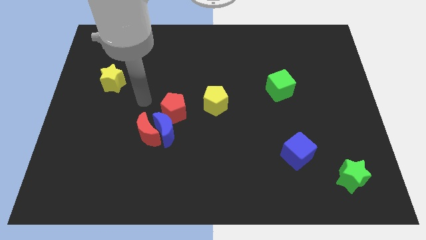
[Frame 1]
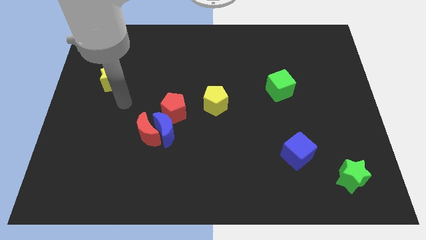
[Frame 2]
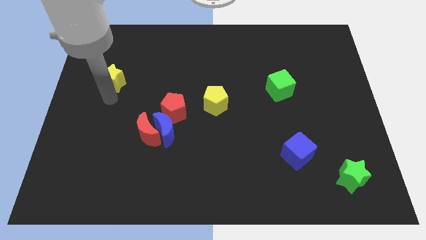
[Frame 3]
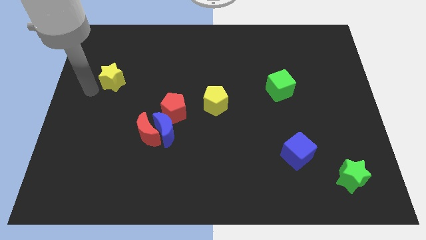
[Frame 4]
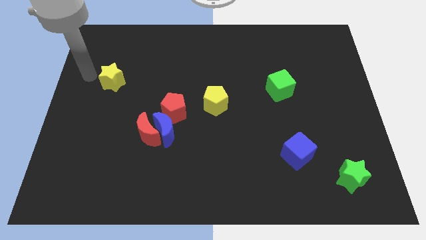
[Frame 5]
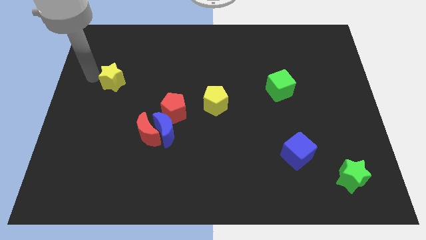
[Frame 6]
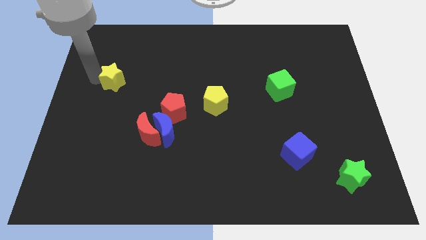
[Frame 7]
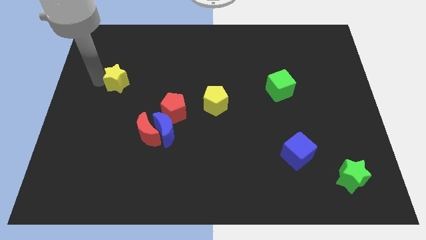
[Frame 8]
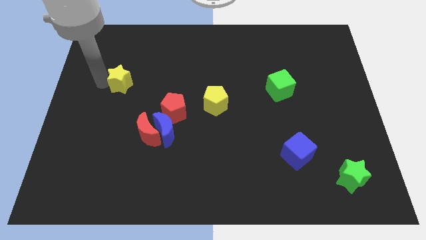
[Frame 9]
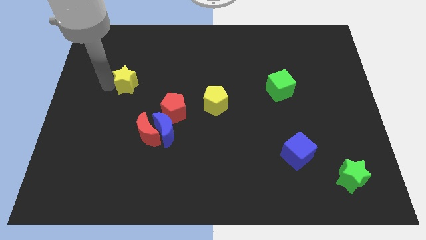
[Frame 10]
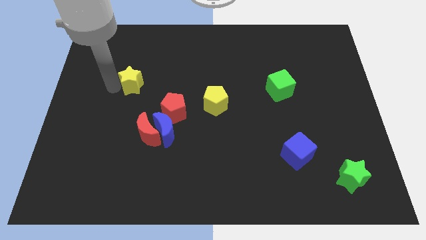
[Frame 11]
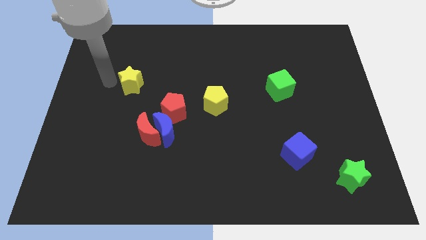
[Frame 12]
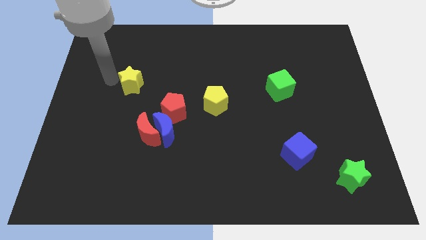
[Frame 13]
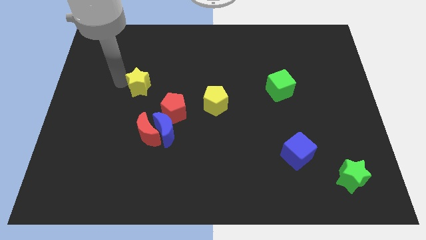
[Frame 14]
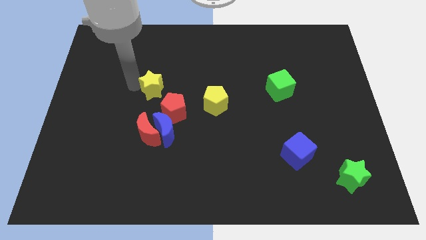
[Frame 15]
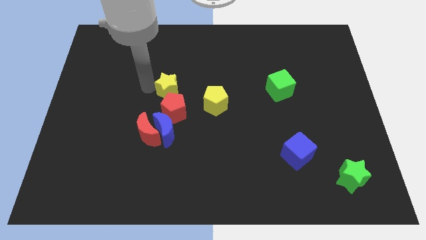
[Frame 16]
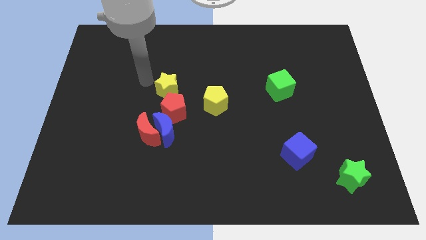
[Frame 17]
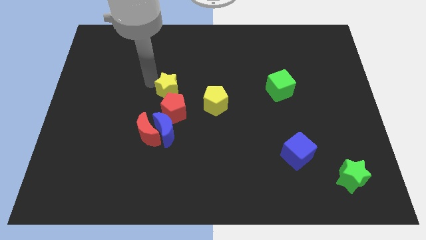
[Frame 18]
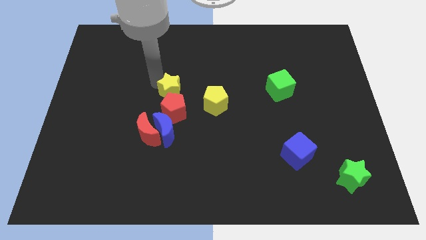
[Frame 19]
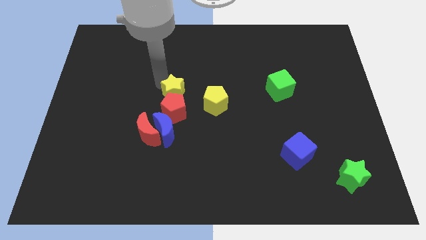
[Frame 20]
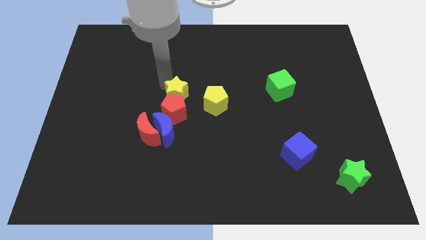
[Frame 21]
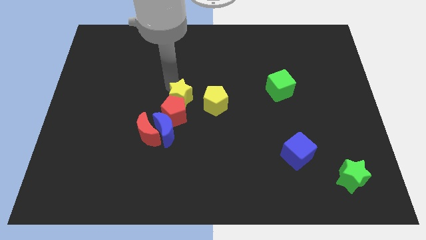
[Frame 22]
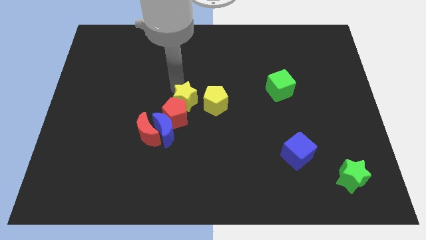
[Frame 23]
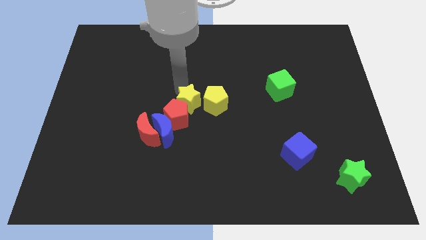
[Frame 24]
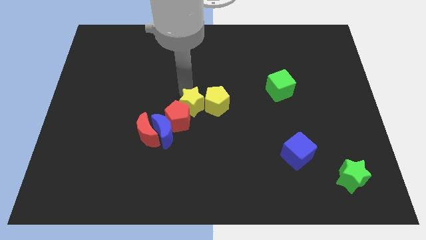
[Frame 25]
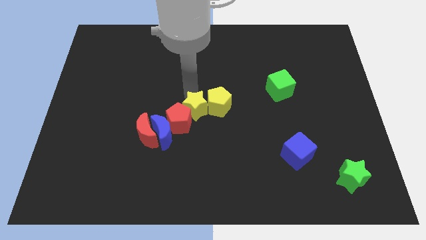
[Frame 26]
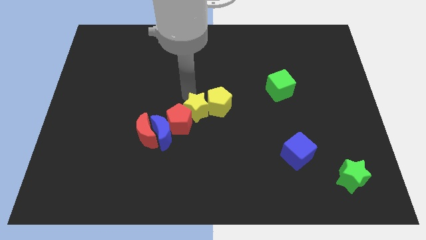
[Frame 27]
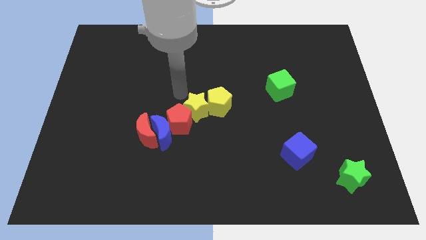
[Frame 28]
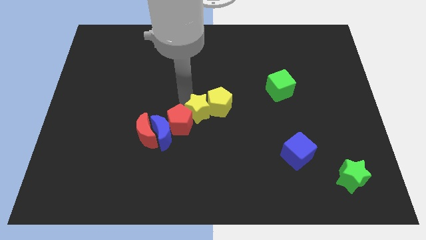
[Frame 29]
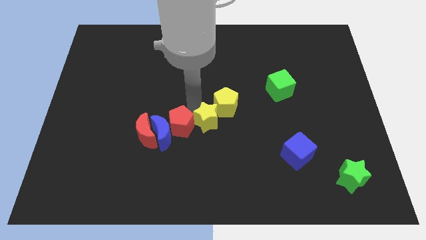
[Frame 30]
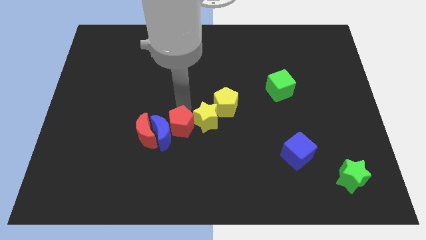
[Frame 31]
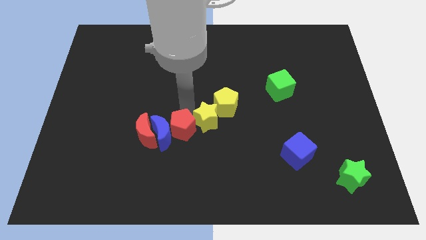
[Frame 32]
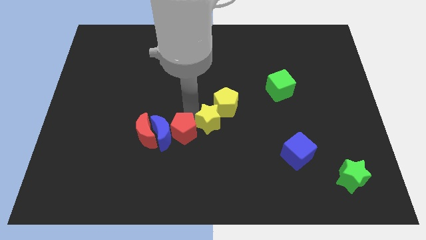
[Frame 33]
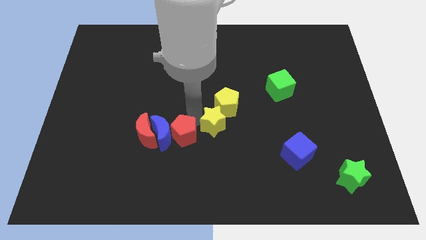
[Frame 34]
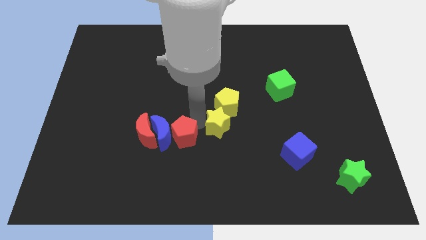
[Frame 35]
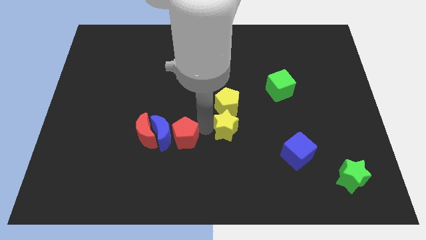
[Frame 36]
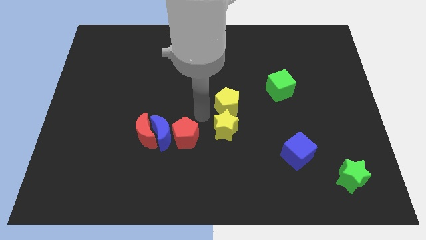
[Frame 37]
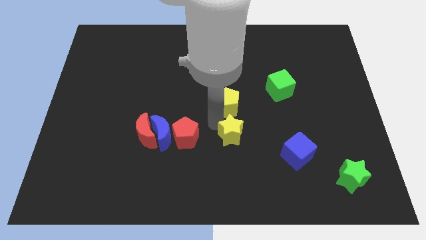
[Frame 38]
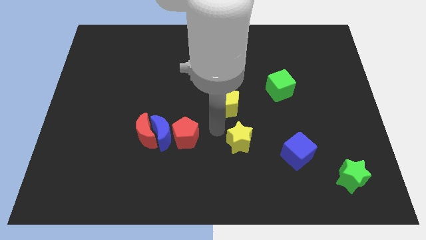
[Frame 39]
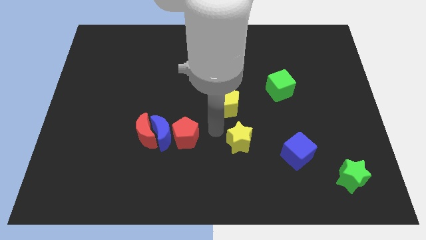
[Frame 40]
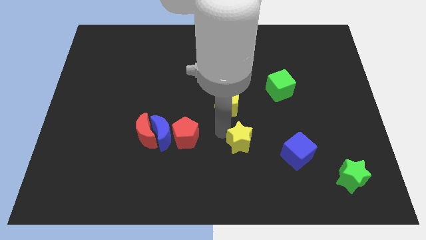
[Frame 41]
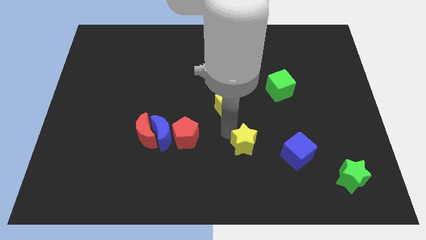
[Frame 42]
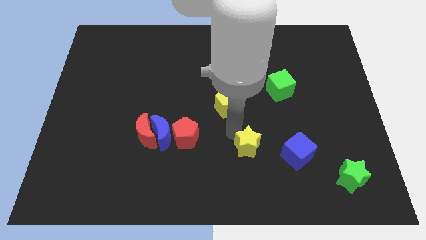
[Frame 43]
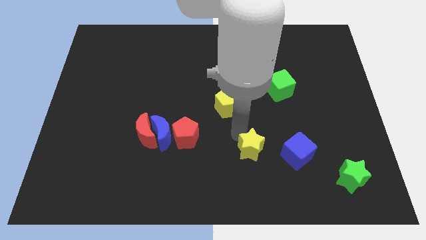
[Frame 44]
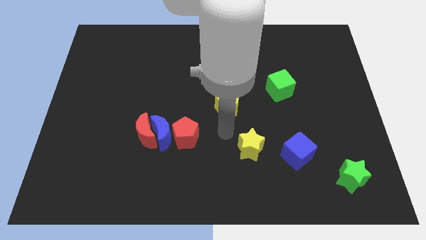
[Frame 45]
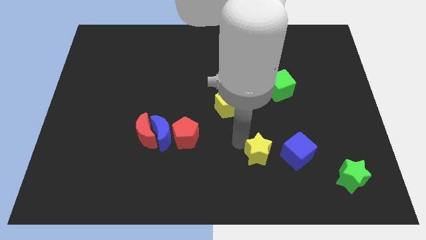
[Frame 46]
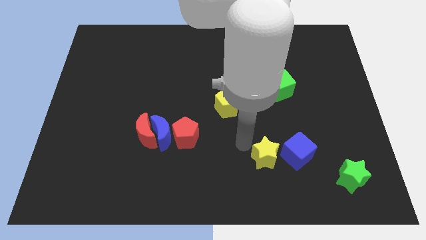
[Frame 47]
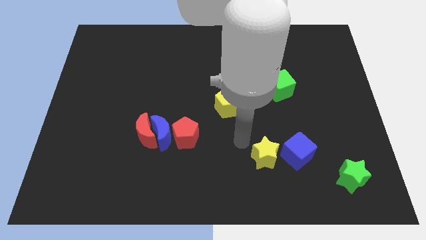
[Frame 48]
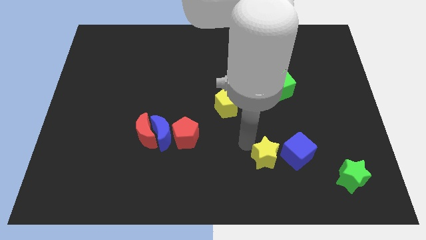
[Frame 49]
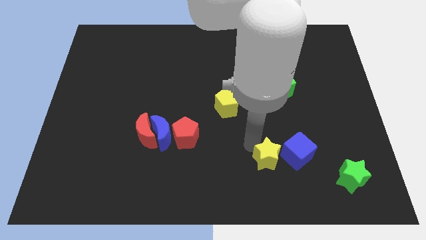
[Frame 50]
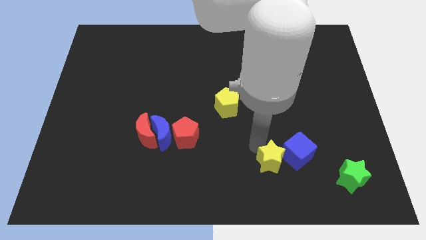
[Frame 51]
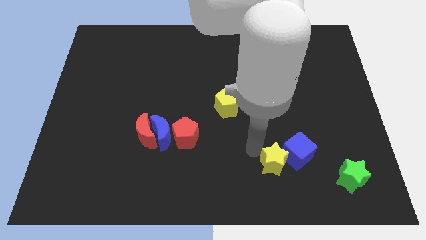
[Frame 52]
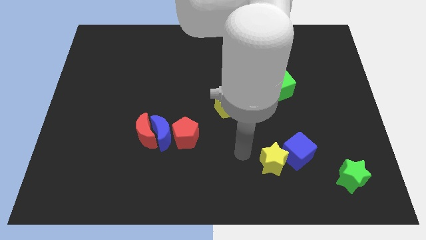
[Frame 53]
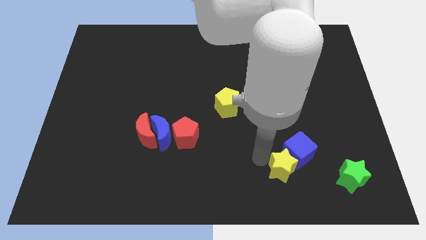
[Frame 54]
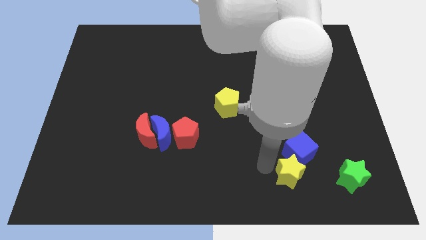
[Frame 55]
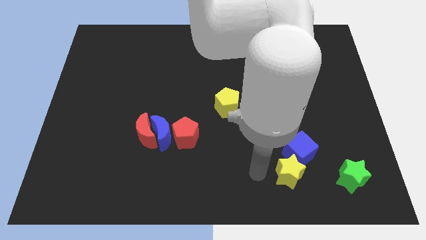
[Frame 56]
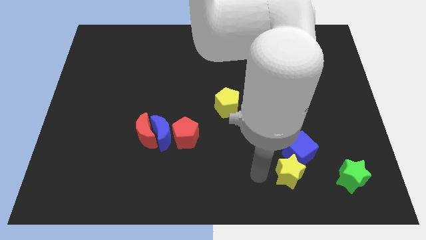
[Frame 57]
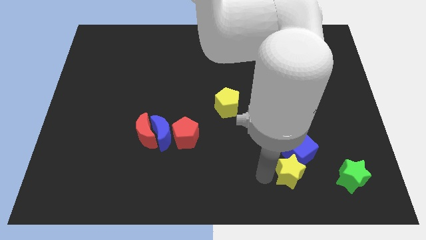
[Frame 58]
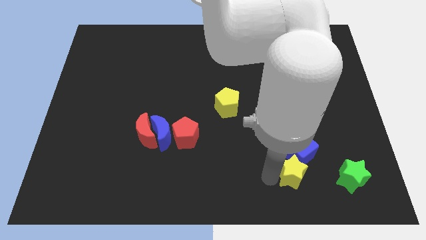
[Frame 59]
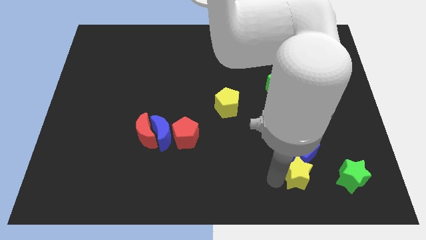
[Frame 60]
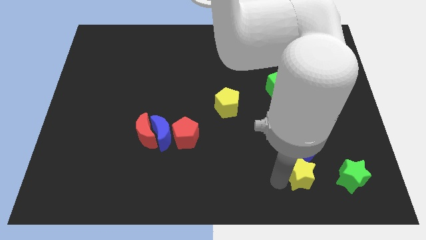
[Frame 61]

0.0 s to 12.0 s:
move the yellow star to the bottom right of the blue cube

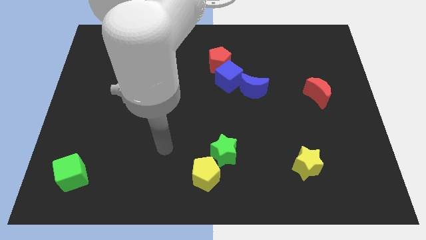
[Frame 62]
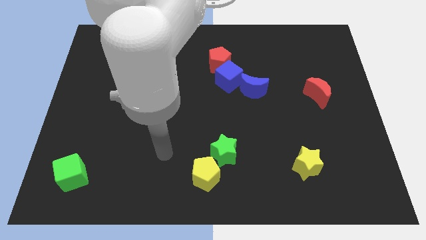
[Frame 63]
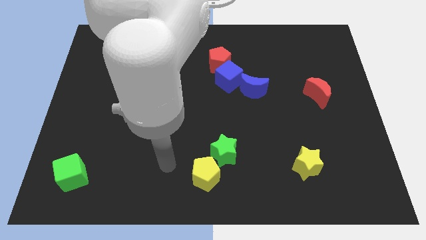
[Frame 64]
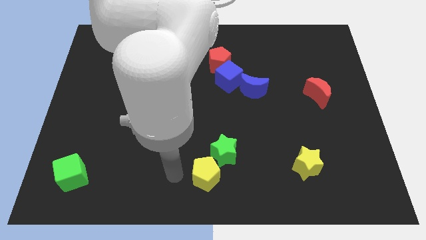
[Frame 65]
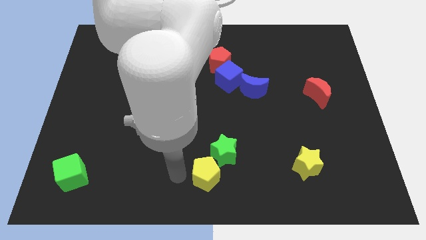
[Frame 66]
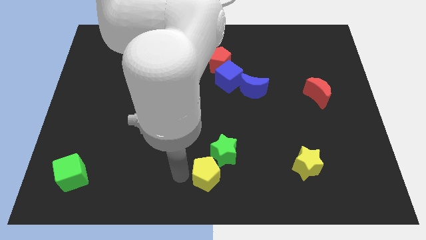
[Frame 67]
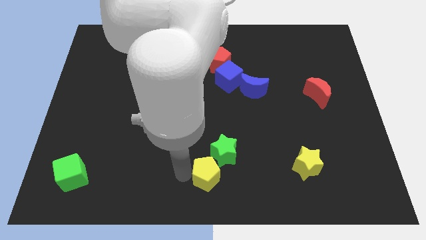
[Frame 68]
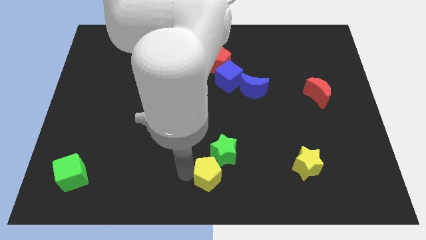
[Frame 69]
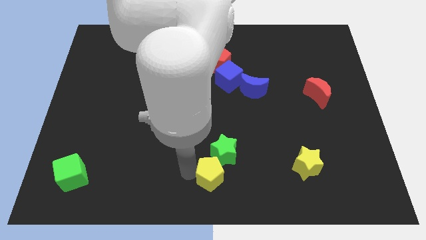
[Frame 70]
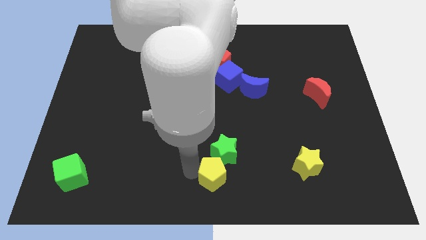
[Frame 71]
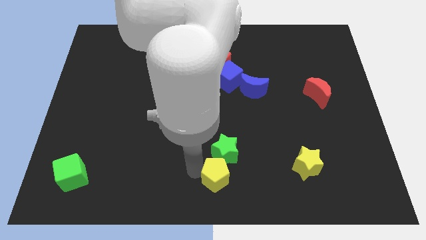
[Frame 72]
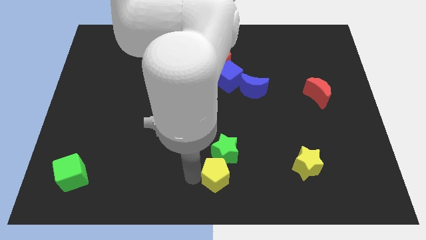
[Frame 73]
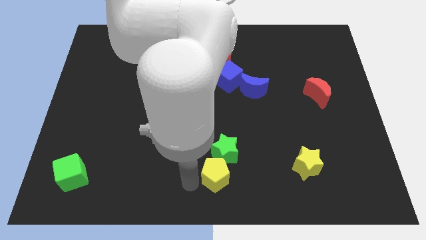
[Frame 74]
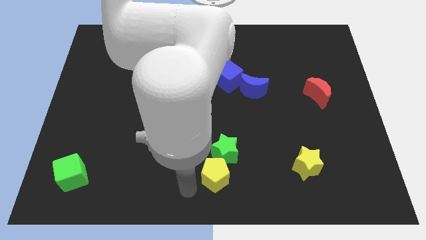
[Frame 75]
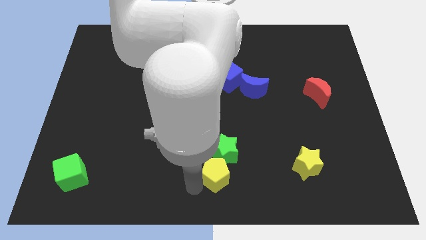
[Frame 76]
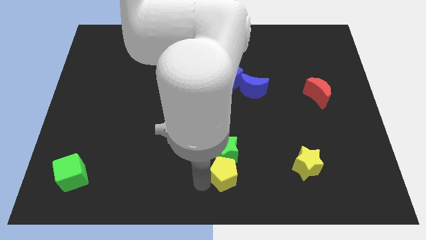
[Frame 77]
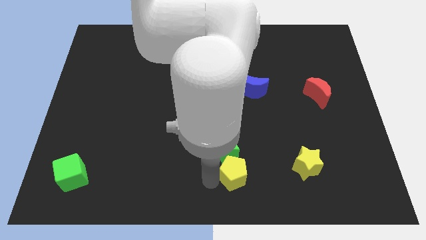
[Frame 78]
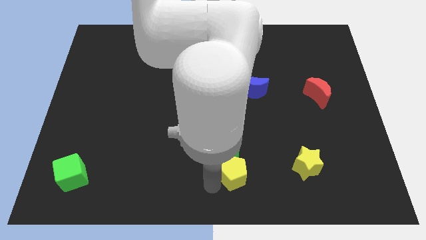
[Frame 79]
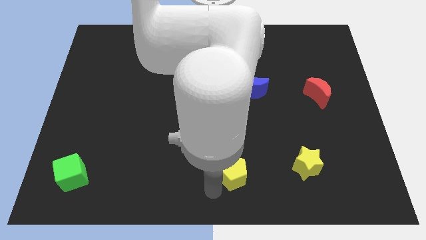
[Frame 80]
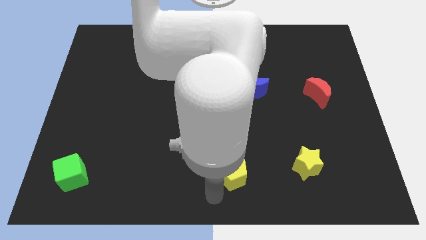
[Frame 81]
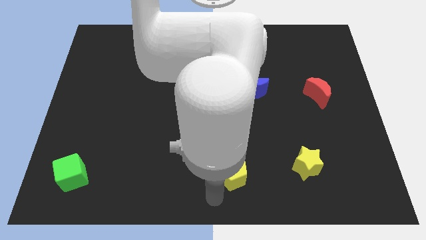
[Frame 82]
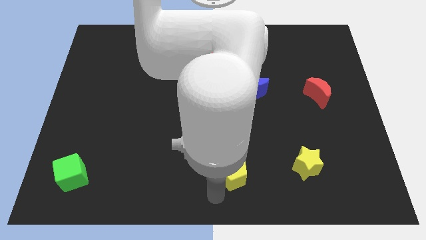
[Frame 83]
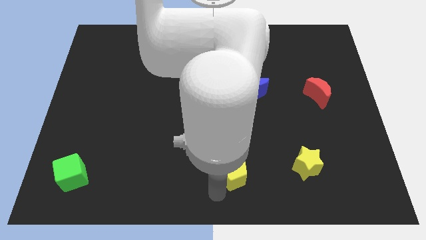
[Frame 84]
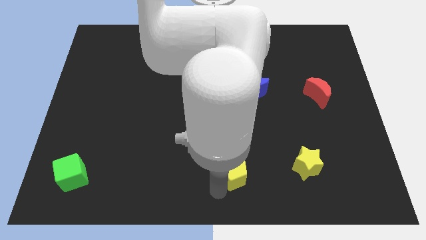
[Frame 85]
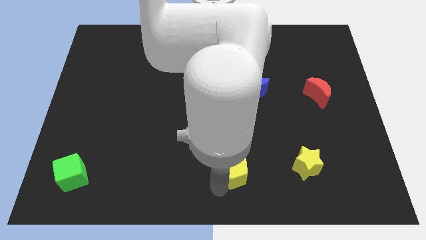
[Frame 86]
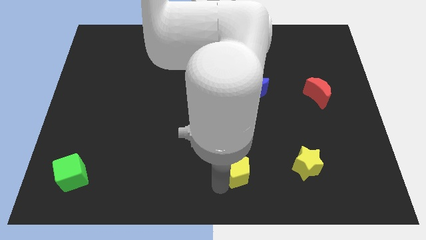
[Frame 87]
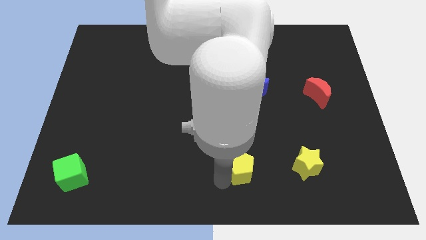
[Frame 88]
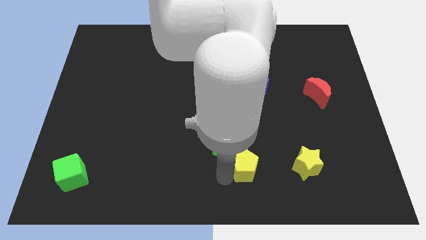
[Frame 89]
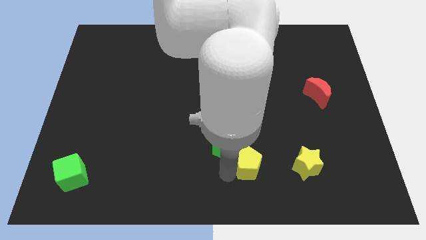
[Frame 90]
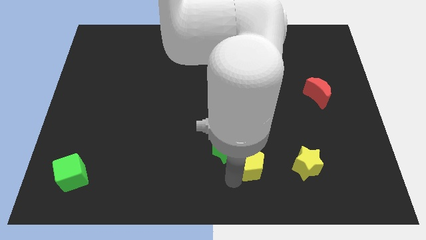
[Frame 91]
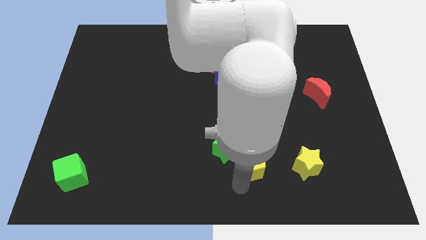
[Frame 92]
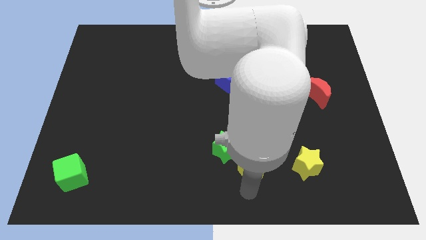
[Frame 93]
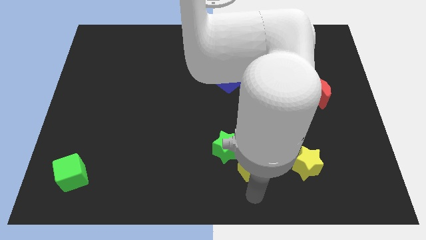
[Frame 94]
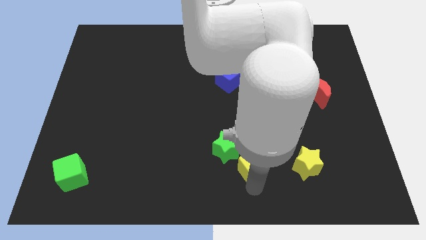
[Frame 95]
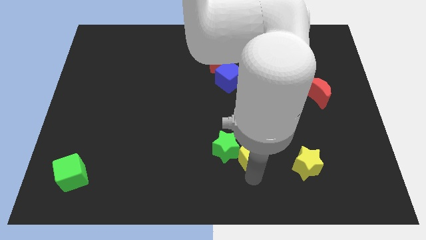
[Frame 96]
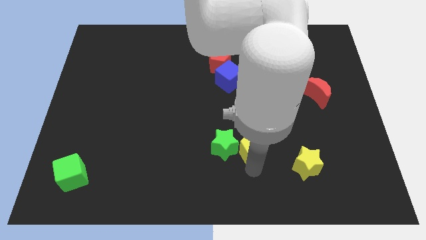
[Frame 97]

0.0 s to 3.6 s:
slide the yellow pentagon to the top right of the green star
